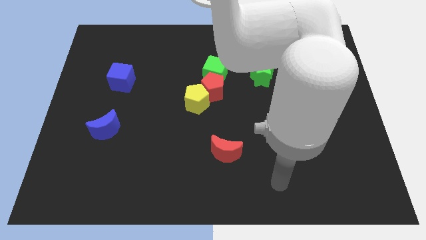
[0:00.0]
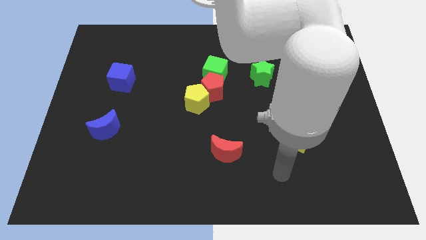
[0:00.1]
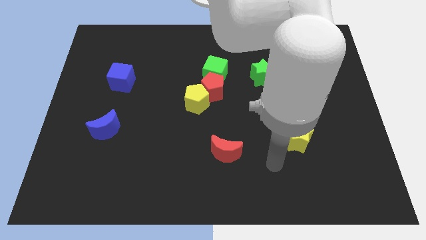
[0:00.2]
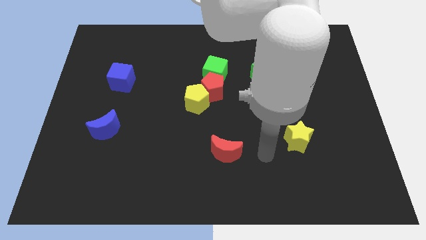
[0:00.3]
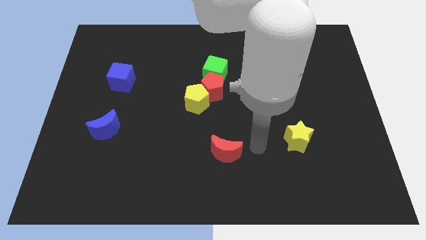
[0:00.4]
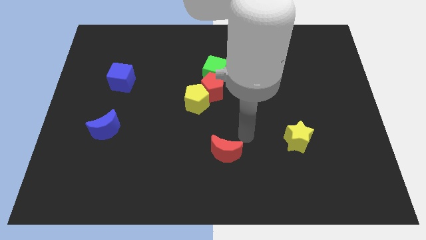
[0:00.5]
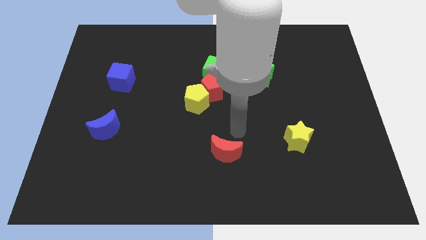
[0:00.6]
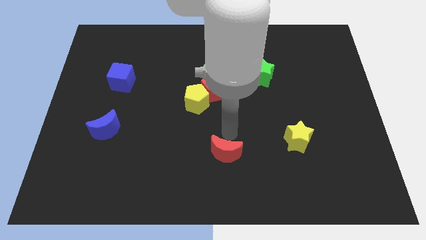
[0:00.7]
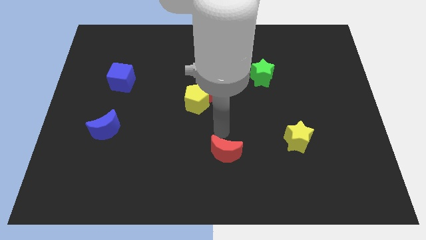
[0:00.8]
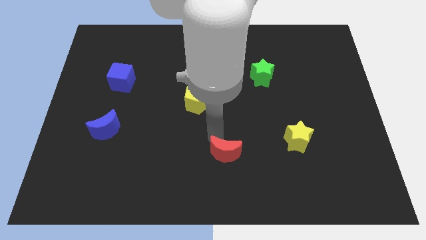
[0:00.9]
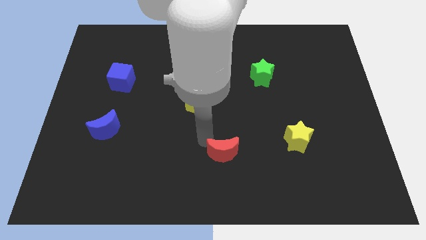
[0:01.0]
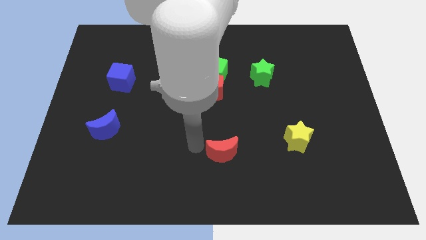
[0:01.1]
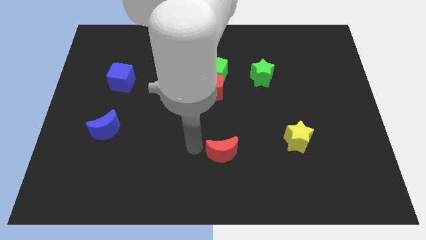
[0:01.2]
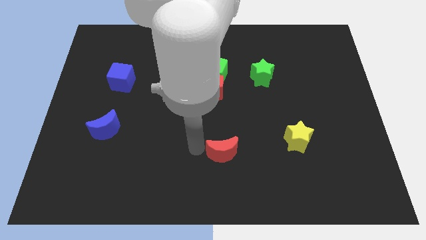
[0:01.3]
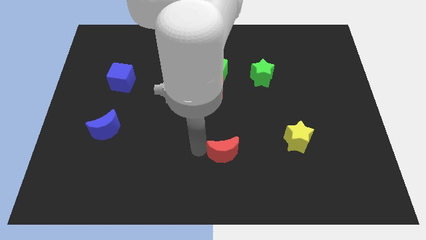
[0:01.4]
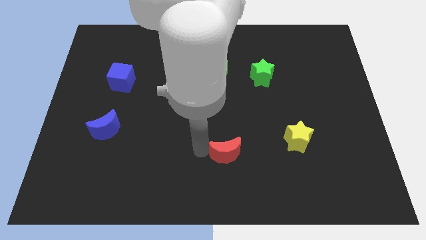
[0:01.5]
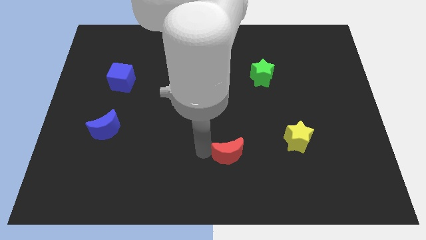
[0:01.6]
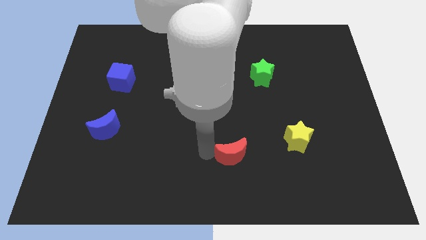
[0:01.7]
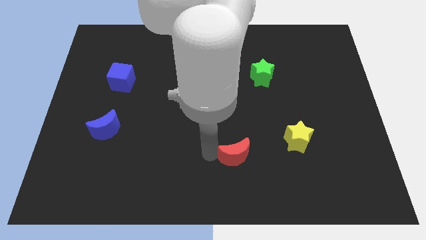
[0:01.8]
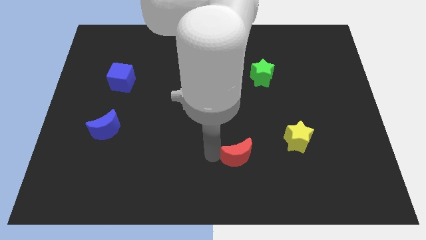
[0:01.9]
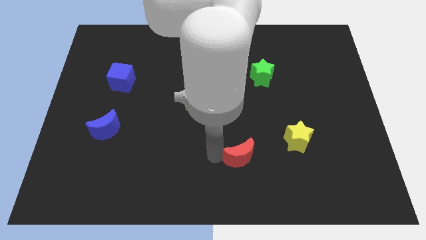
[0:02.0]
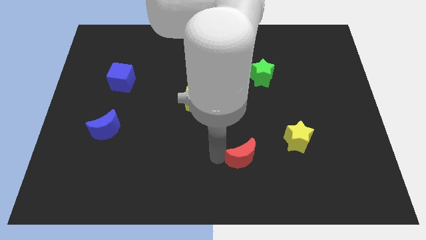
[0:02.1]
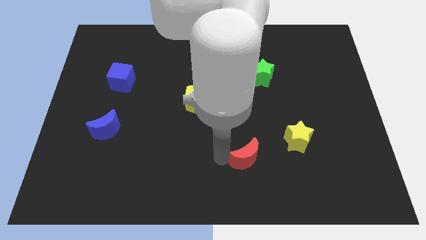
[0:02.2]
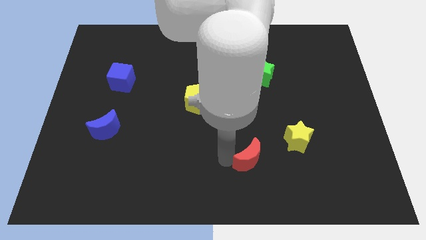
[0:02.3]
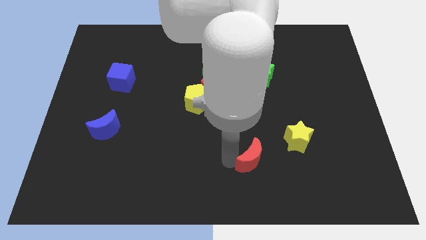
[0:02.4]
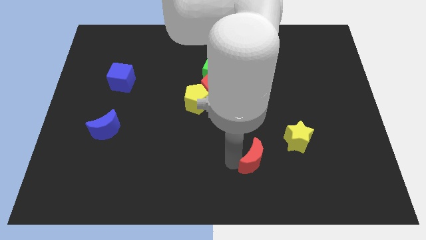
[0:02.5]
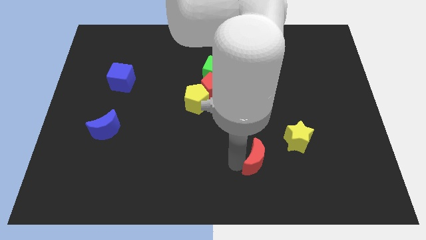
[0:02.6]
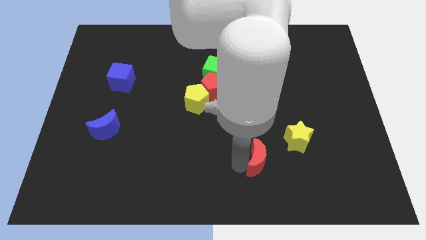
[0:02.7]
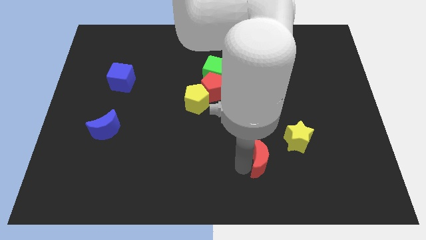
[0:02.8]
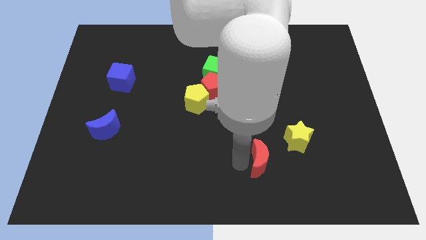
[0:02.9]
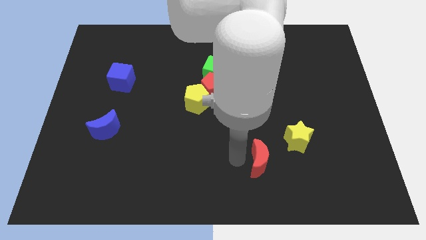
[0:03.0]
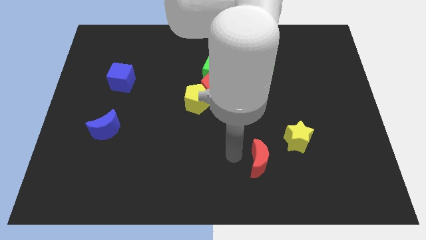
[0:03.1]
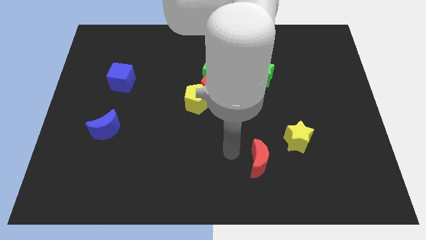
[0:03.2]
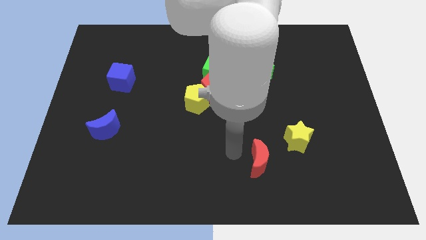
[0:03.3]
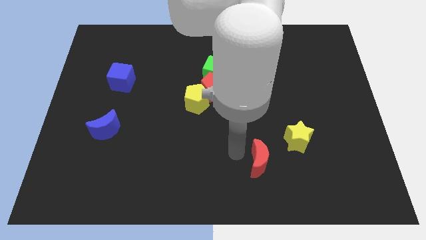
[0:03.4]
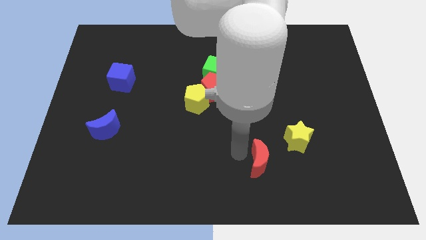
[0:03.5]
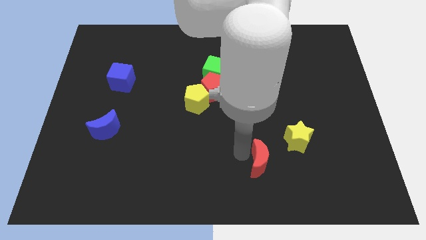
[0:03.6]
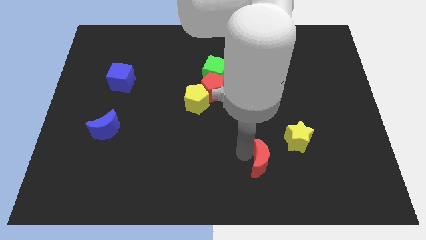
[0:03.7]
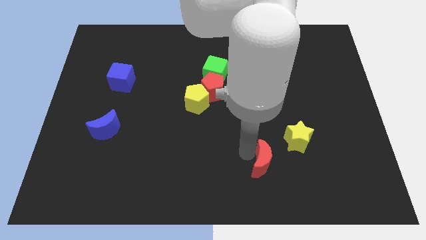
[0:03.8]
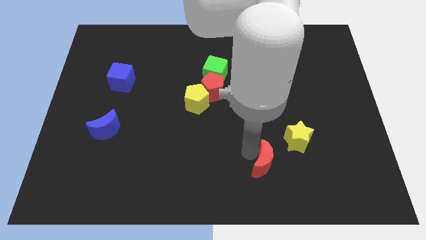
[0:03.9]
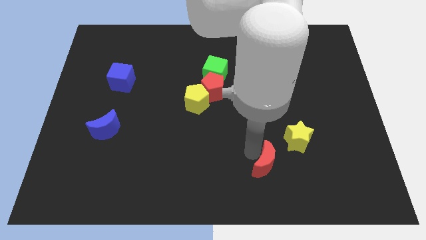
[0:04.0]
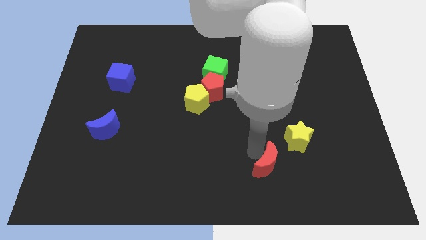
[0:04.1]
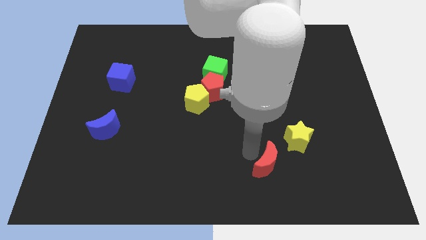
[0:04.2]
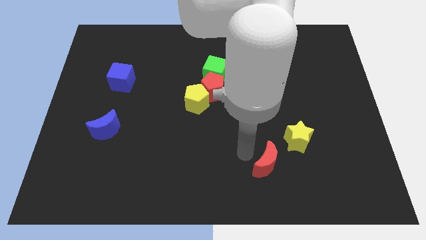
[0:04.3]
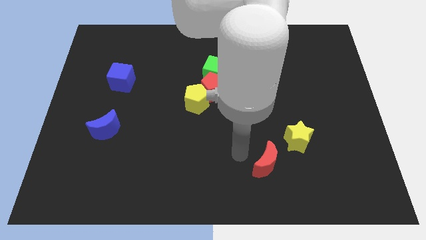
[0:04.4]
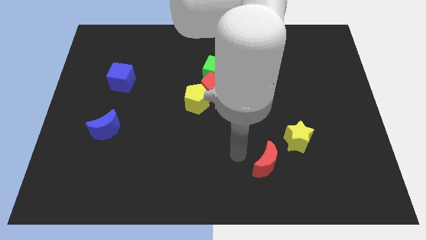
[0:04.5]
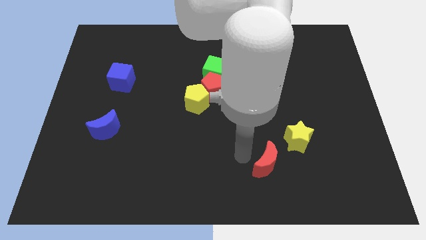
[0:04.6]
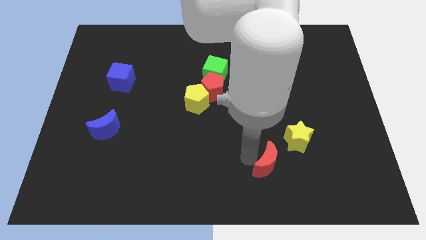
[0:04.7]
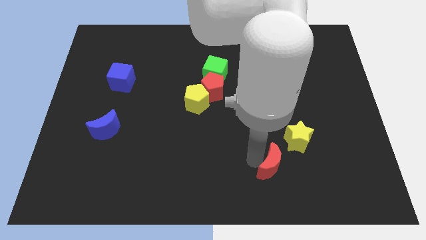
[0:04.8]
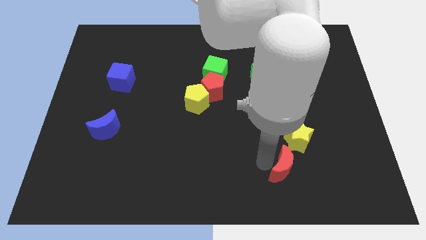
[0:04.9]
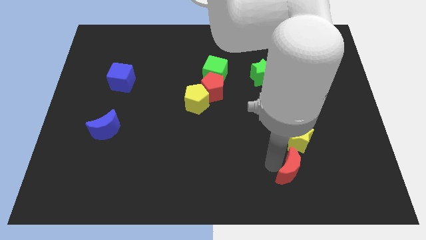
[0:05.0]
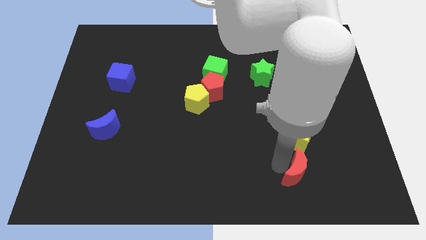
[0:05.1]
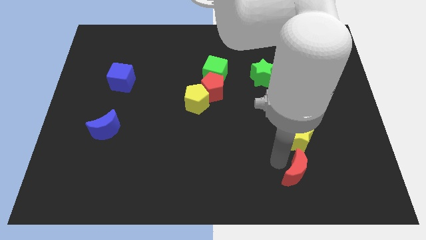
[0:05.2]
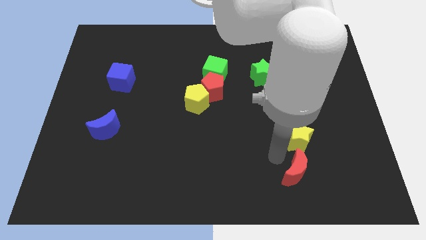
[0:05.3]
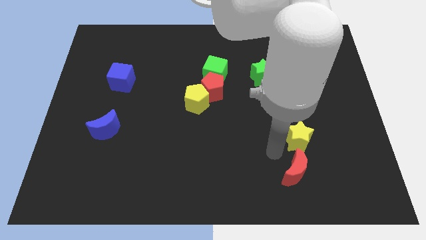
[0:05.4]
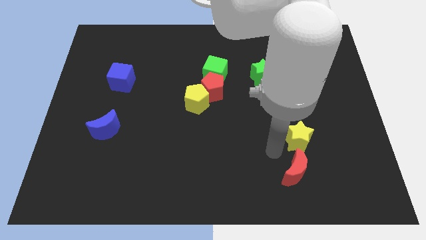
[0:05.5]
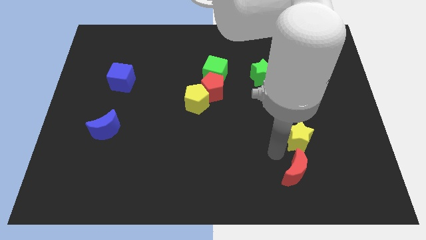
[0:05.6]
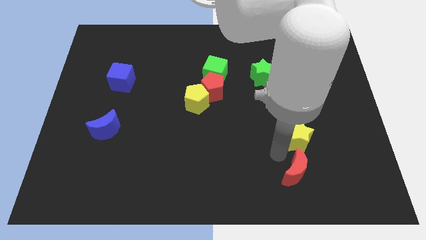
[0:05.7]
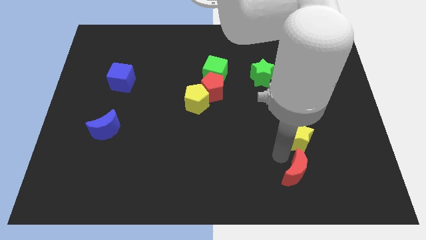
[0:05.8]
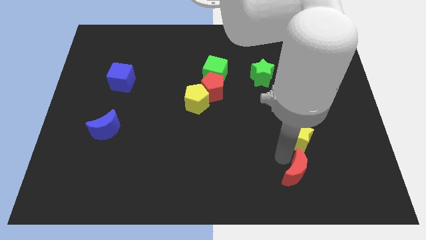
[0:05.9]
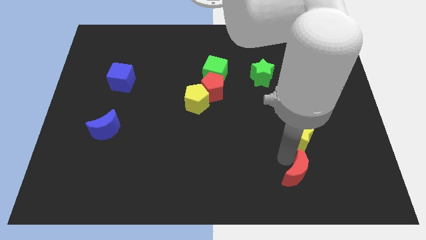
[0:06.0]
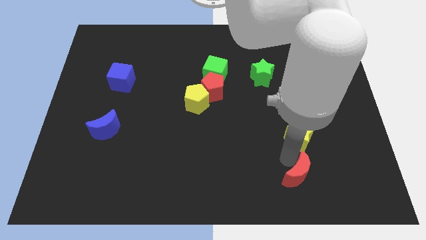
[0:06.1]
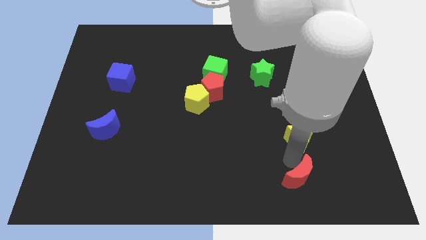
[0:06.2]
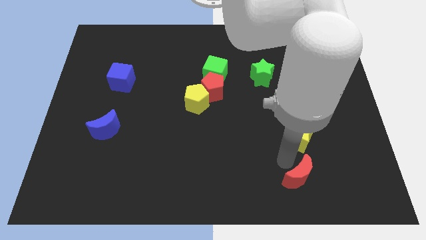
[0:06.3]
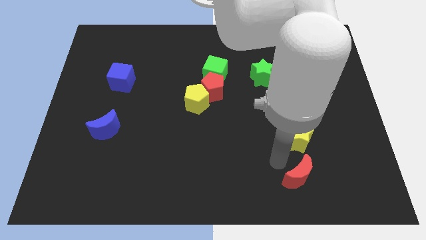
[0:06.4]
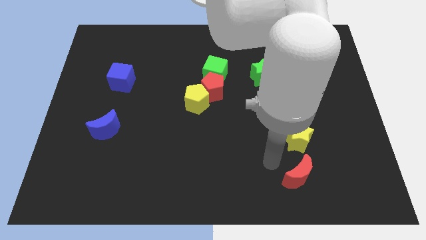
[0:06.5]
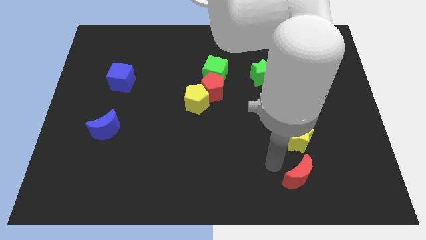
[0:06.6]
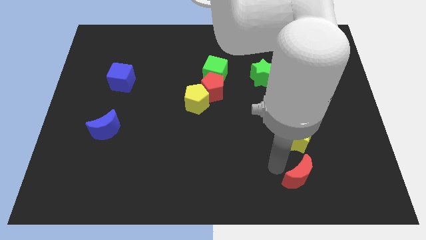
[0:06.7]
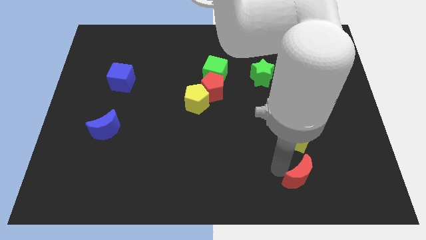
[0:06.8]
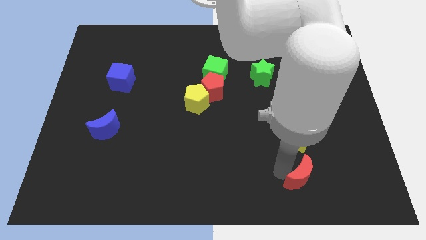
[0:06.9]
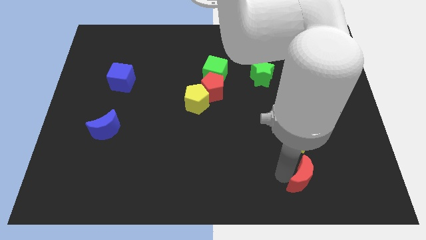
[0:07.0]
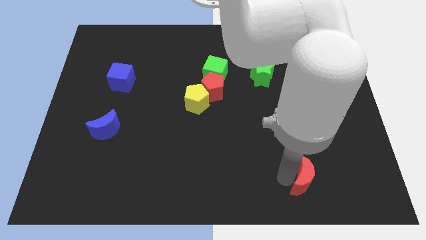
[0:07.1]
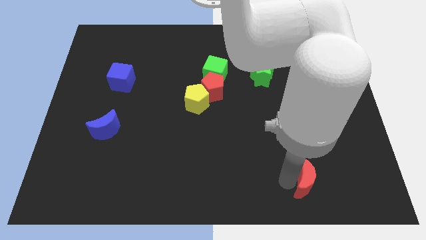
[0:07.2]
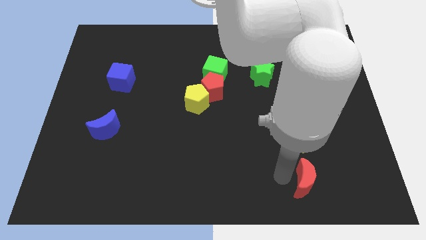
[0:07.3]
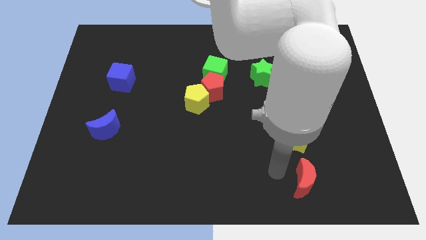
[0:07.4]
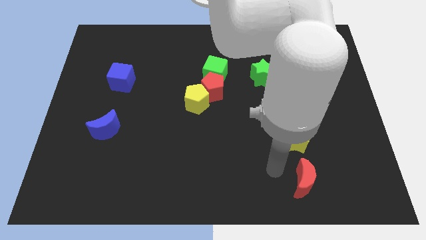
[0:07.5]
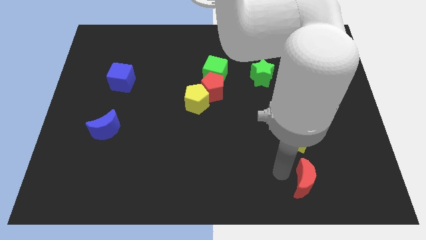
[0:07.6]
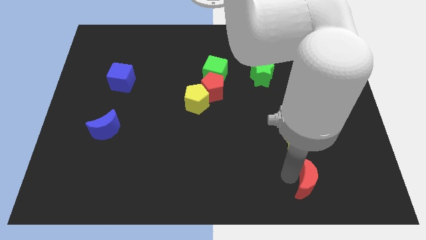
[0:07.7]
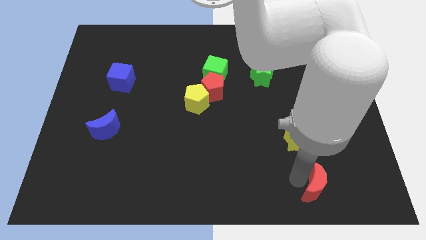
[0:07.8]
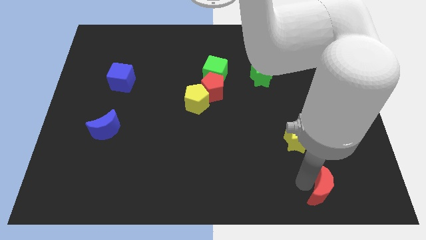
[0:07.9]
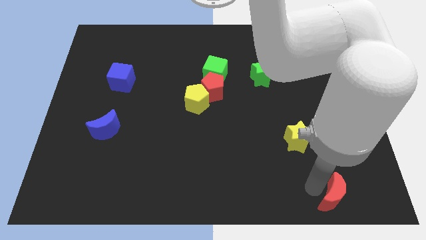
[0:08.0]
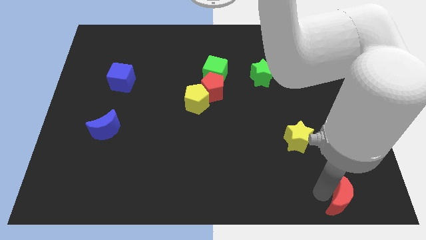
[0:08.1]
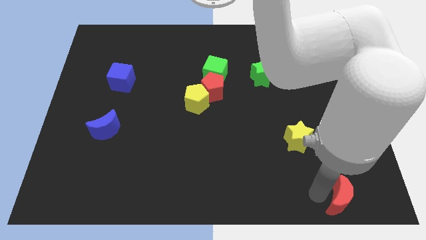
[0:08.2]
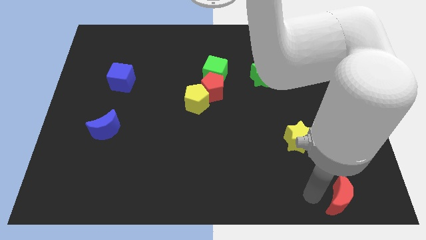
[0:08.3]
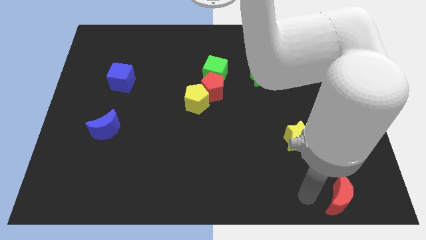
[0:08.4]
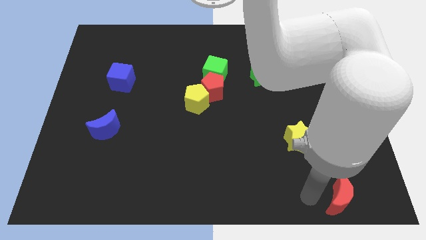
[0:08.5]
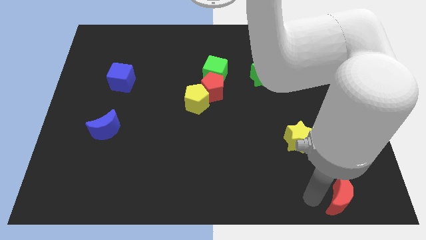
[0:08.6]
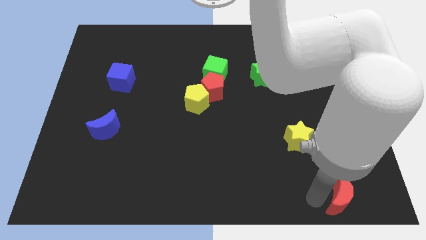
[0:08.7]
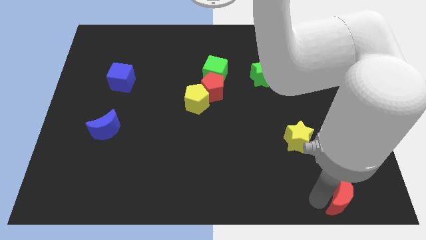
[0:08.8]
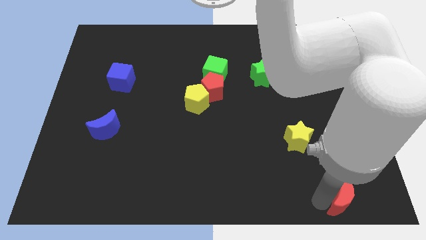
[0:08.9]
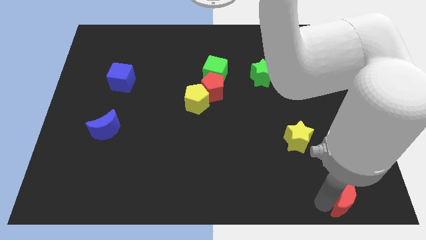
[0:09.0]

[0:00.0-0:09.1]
slide the red moon to the bottom right
